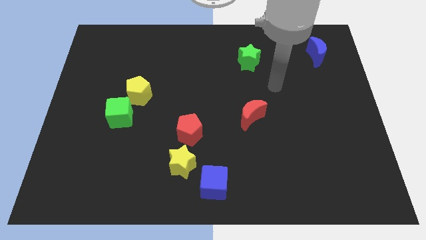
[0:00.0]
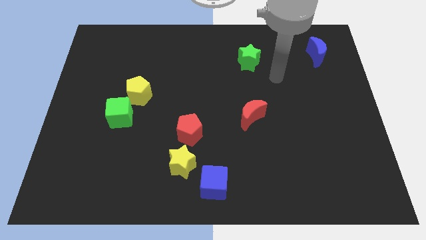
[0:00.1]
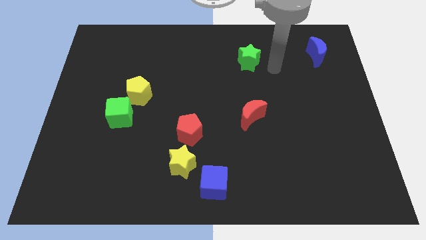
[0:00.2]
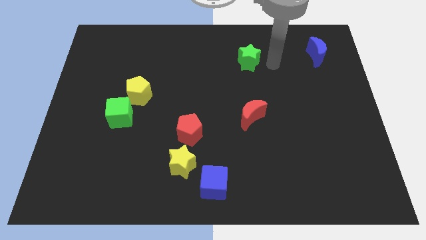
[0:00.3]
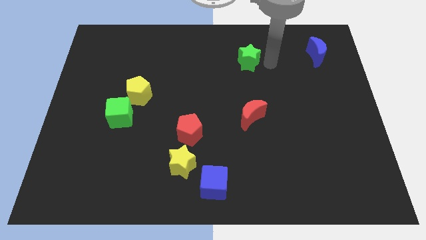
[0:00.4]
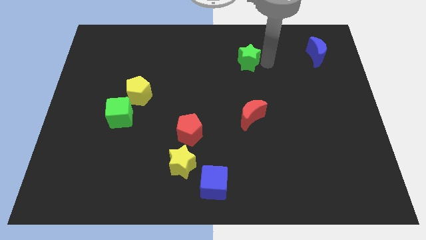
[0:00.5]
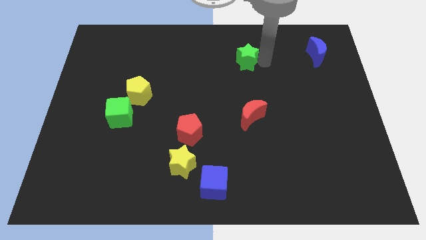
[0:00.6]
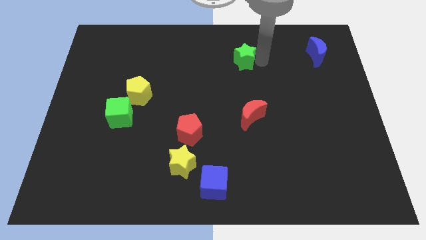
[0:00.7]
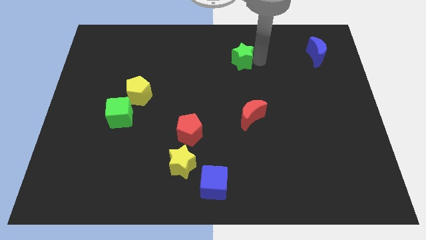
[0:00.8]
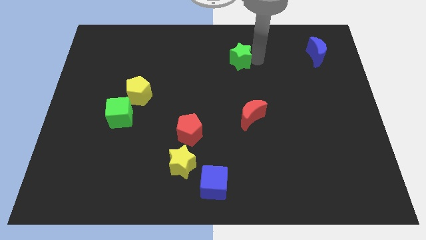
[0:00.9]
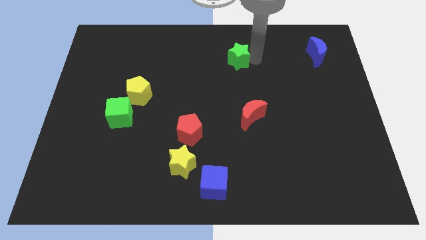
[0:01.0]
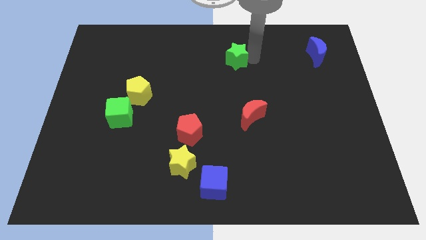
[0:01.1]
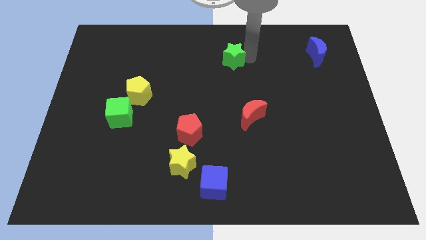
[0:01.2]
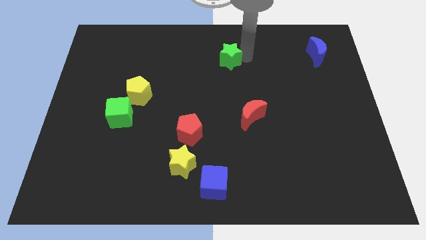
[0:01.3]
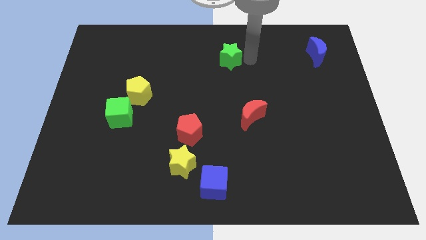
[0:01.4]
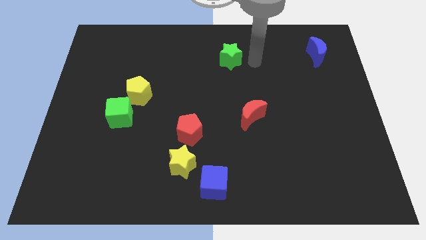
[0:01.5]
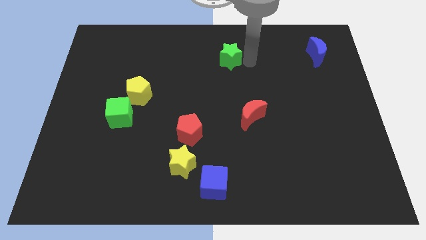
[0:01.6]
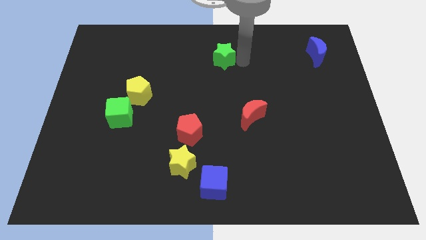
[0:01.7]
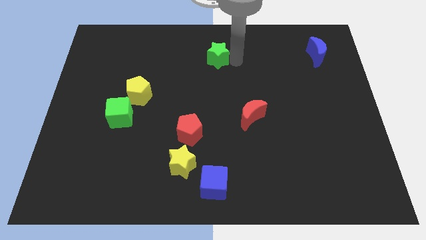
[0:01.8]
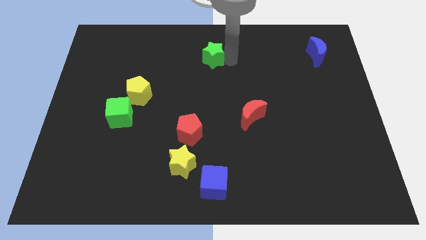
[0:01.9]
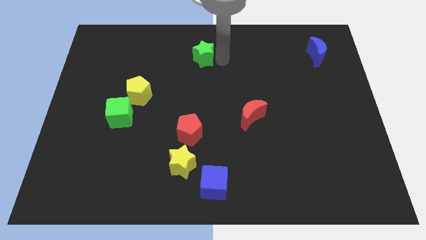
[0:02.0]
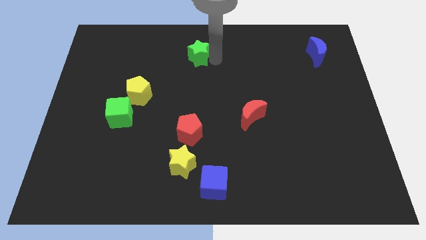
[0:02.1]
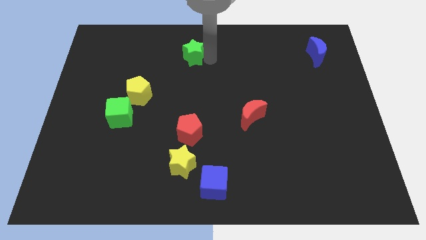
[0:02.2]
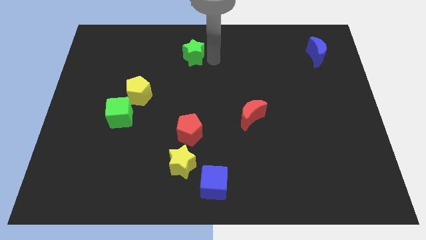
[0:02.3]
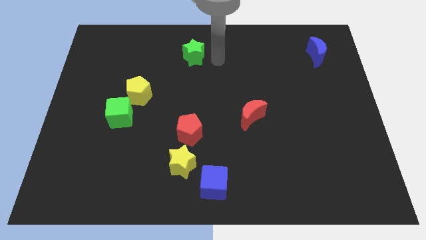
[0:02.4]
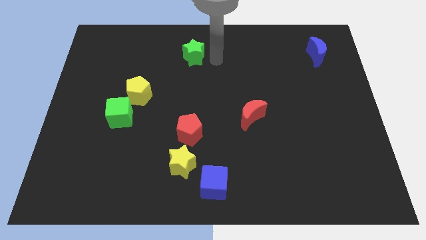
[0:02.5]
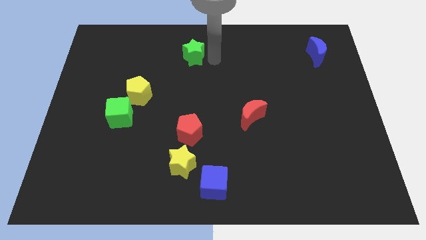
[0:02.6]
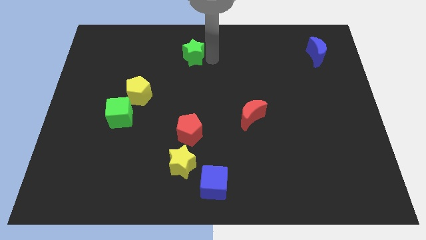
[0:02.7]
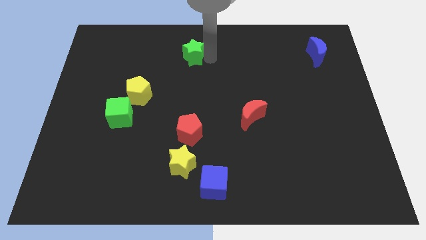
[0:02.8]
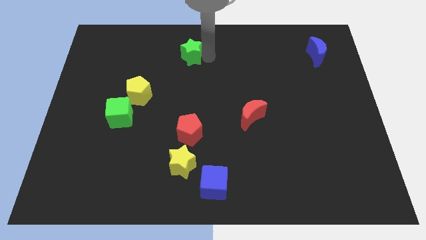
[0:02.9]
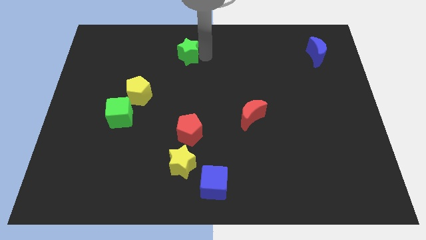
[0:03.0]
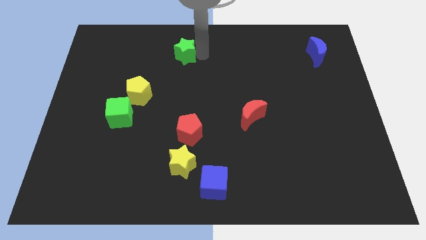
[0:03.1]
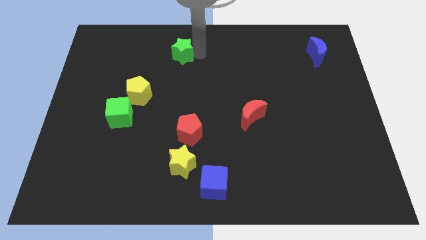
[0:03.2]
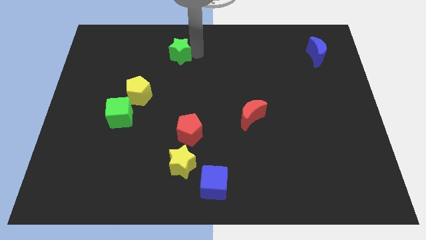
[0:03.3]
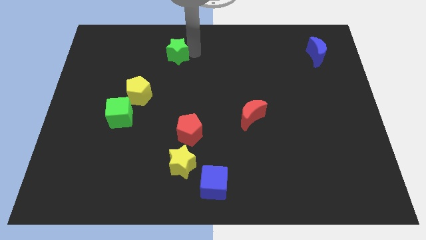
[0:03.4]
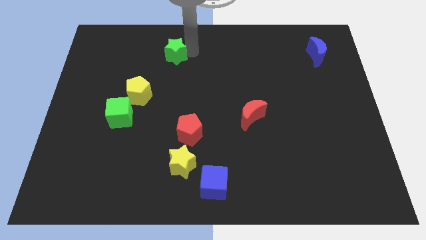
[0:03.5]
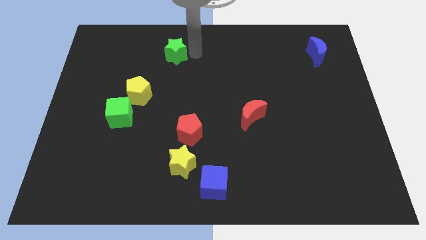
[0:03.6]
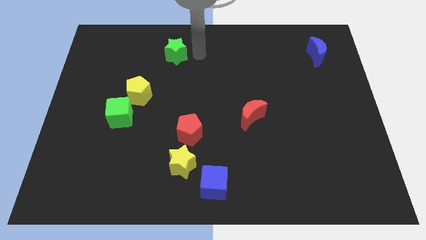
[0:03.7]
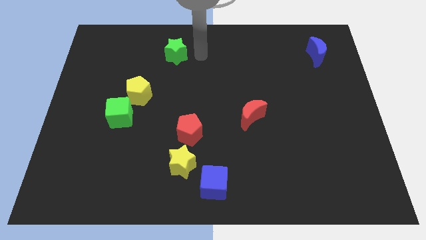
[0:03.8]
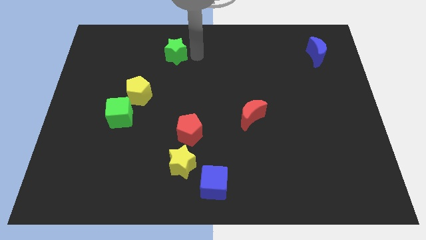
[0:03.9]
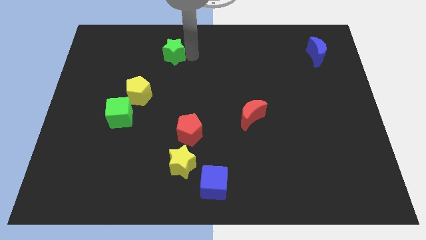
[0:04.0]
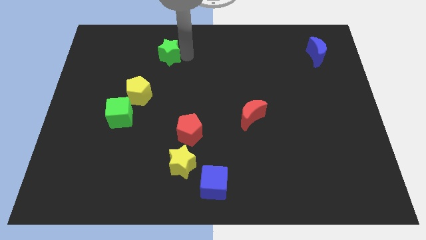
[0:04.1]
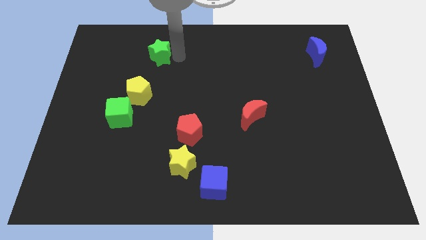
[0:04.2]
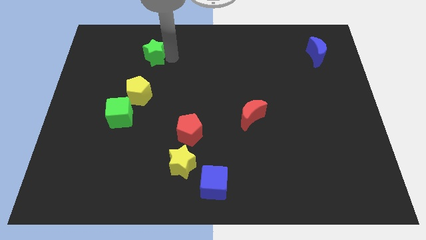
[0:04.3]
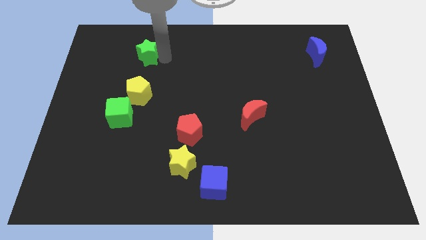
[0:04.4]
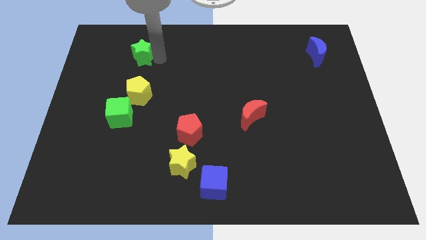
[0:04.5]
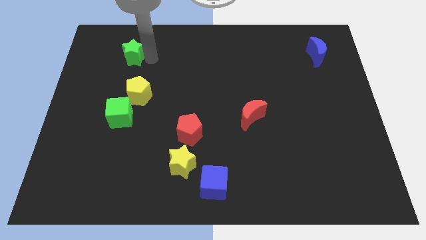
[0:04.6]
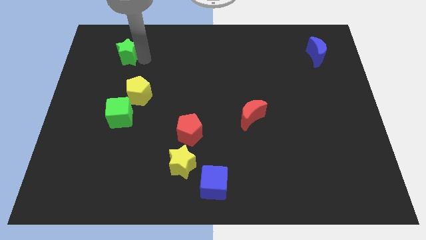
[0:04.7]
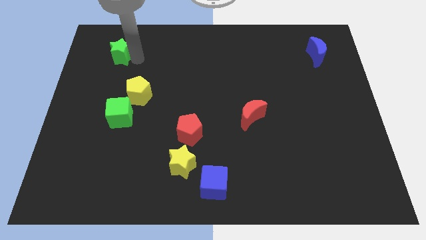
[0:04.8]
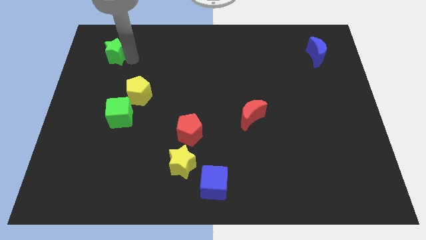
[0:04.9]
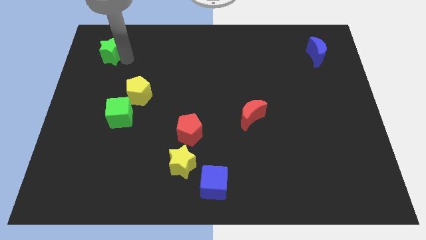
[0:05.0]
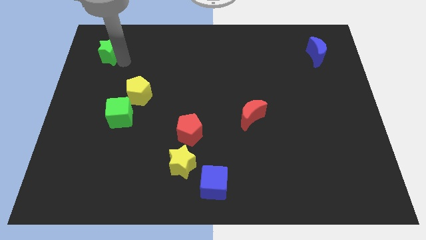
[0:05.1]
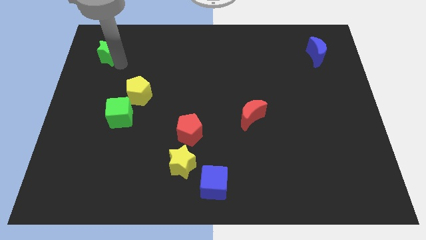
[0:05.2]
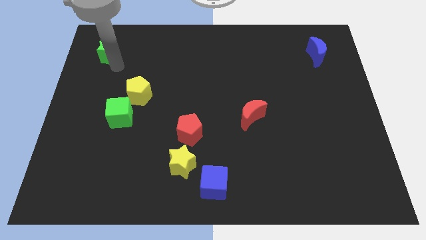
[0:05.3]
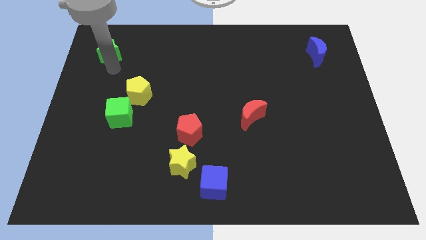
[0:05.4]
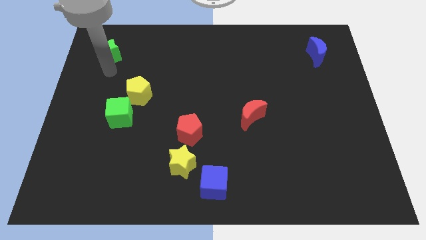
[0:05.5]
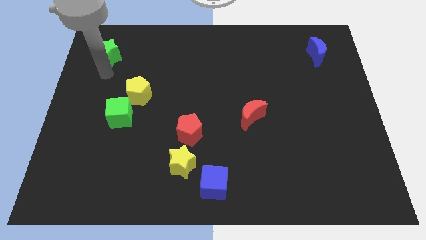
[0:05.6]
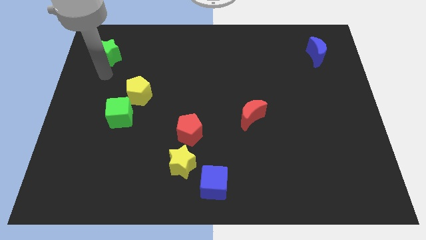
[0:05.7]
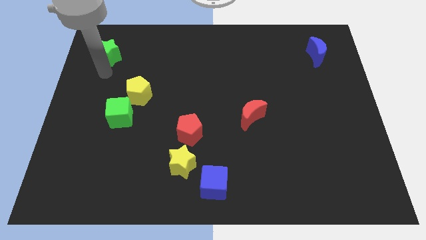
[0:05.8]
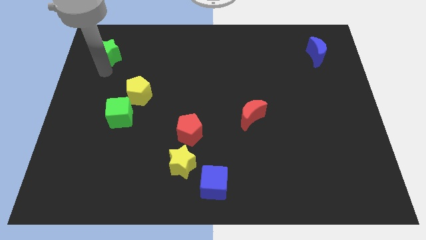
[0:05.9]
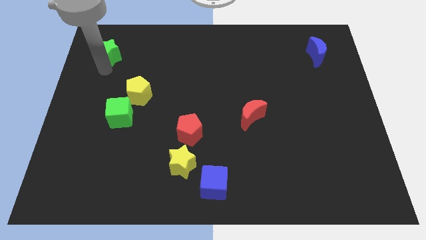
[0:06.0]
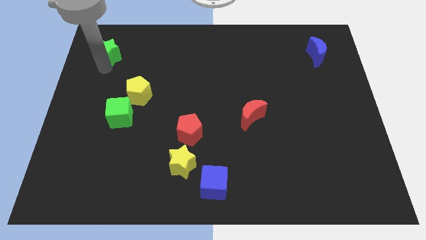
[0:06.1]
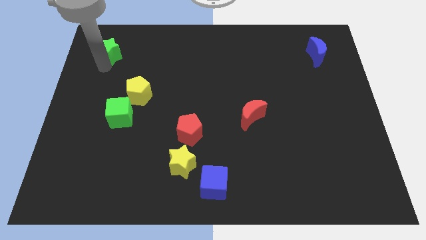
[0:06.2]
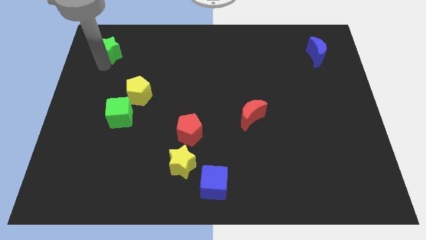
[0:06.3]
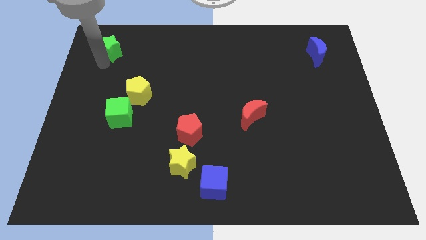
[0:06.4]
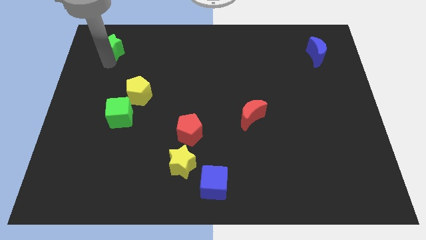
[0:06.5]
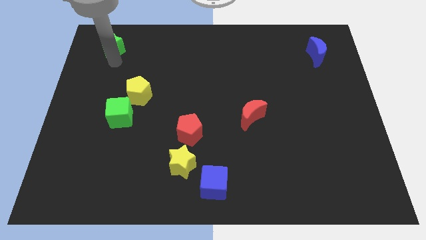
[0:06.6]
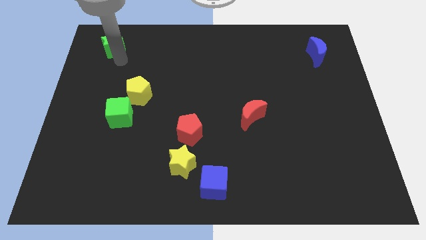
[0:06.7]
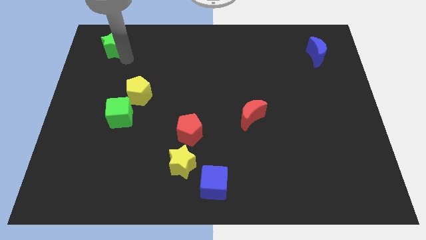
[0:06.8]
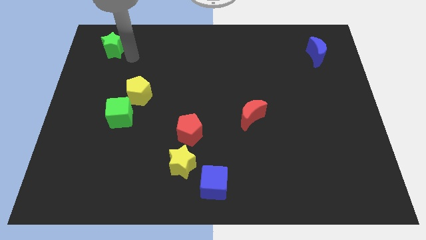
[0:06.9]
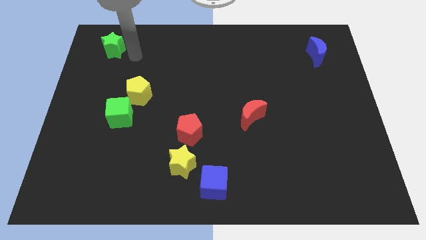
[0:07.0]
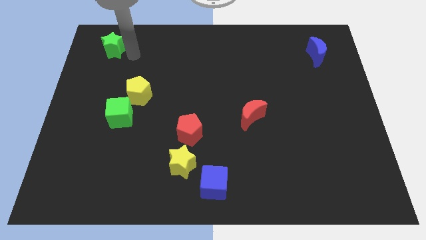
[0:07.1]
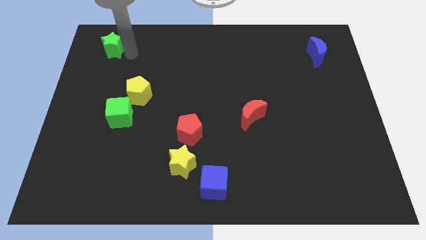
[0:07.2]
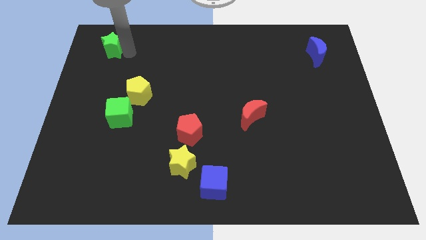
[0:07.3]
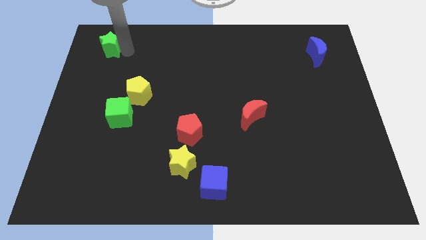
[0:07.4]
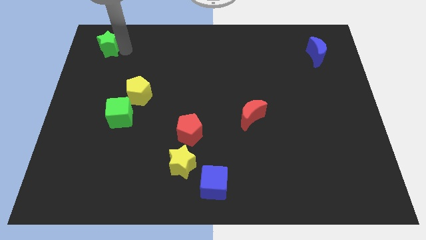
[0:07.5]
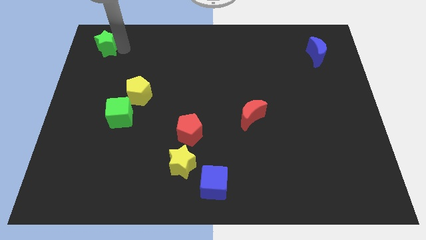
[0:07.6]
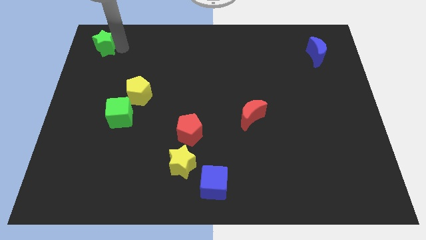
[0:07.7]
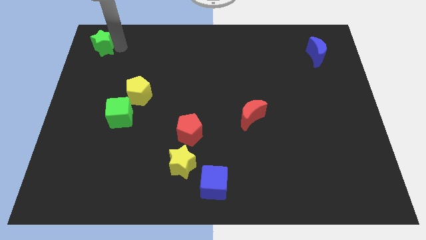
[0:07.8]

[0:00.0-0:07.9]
push the green star to the top left corner
